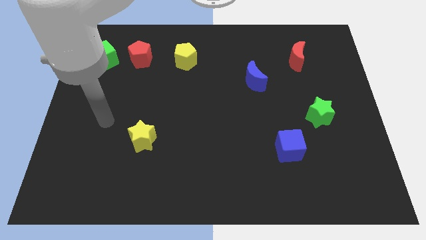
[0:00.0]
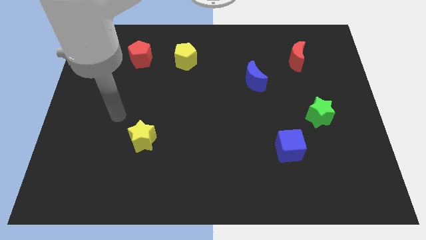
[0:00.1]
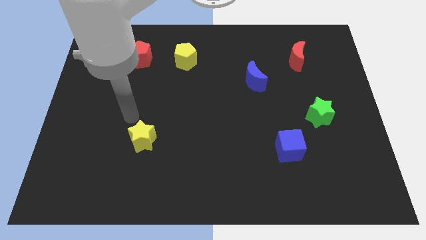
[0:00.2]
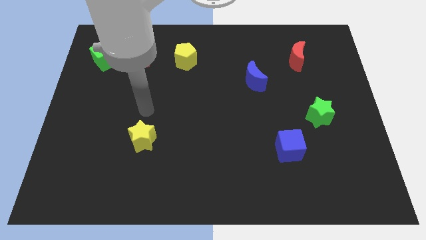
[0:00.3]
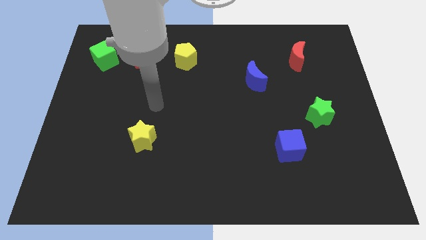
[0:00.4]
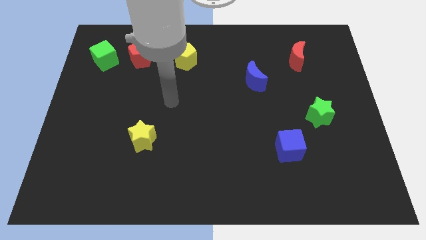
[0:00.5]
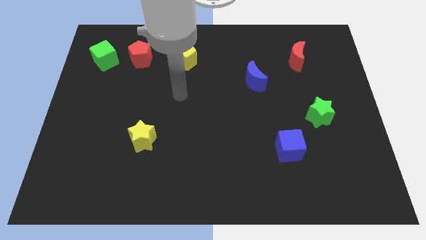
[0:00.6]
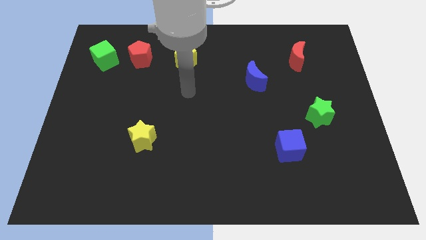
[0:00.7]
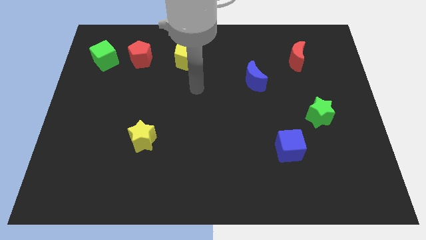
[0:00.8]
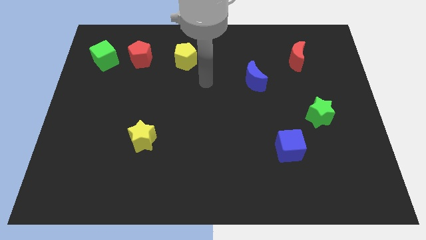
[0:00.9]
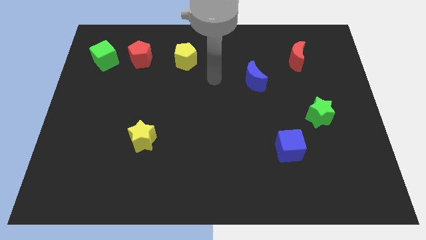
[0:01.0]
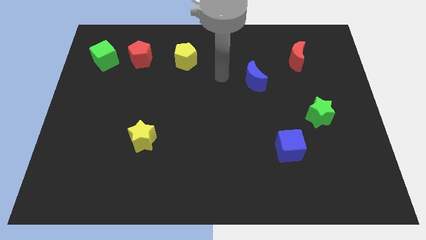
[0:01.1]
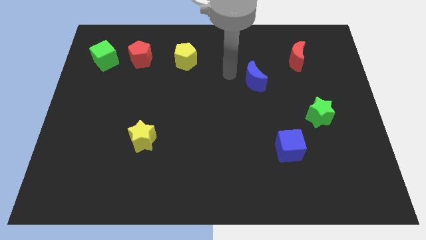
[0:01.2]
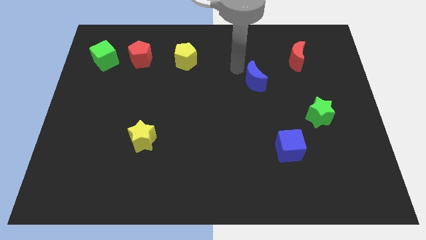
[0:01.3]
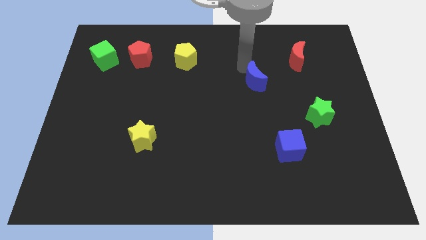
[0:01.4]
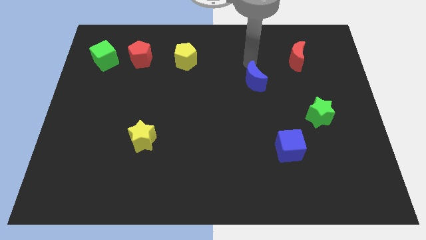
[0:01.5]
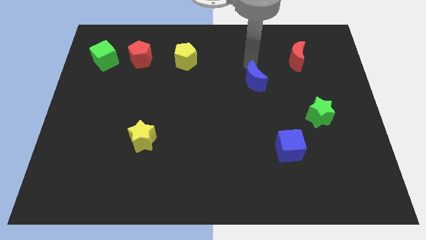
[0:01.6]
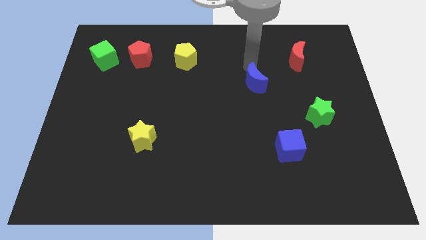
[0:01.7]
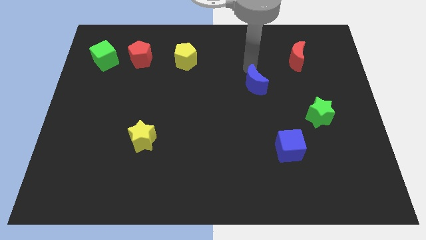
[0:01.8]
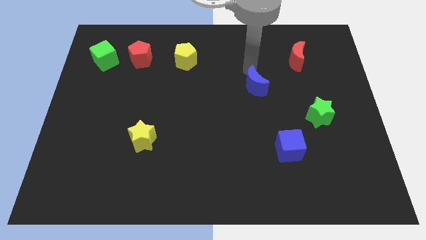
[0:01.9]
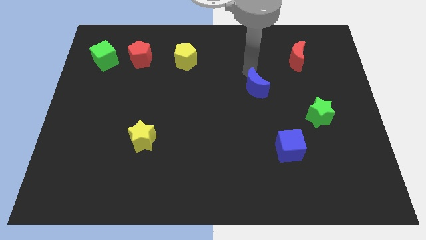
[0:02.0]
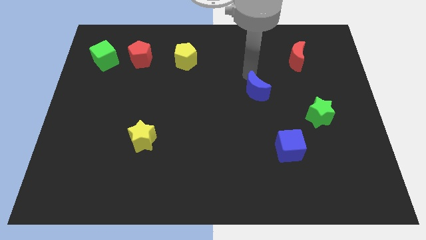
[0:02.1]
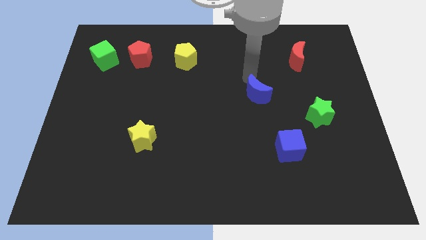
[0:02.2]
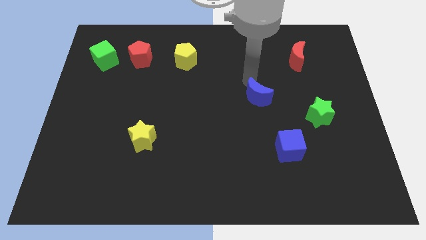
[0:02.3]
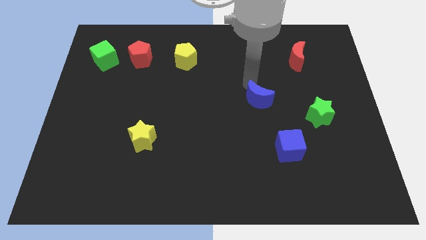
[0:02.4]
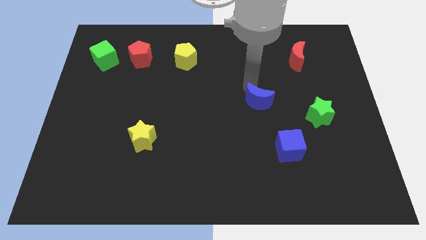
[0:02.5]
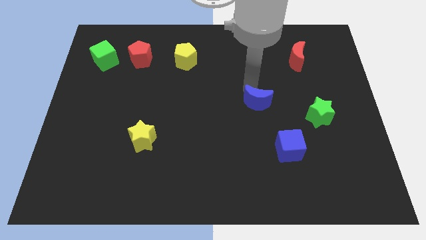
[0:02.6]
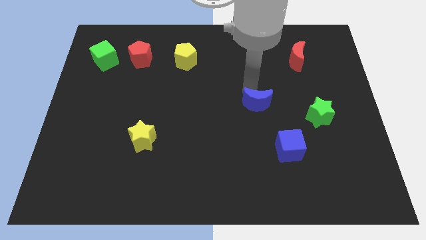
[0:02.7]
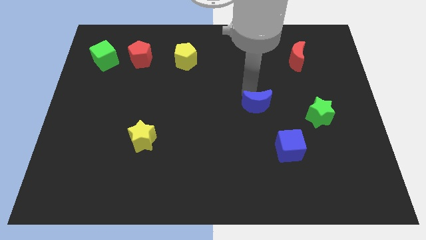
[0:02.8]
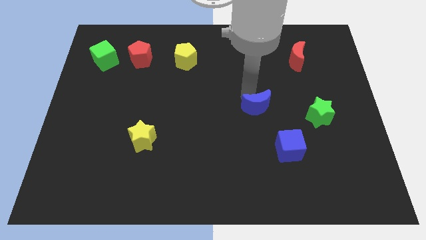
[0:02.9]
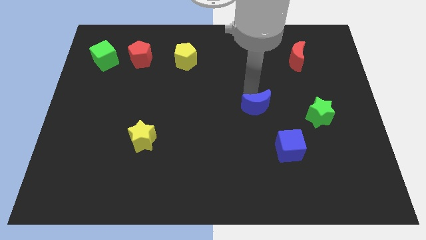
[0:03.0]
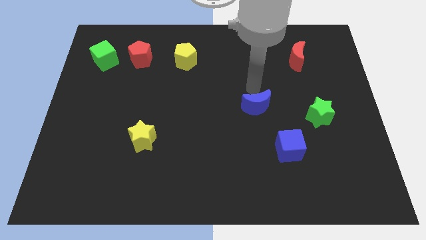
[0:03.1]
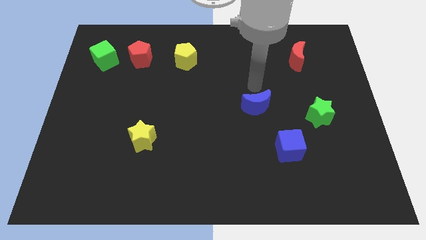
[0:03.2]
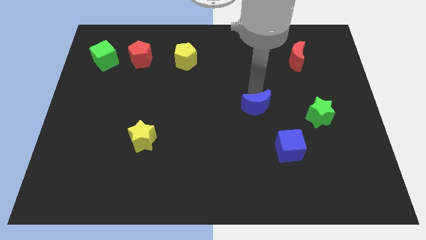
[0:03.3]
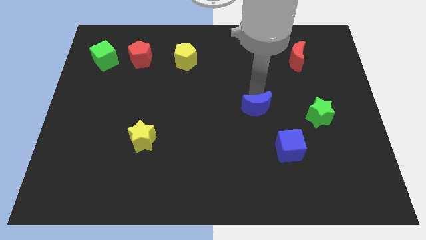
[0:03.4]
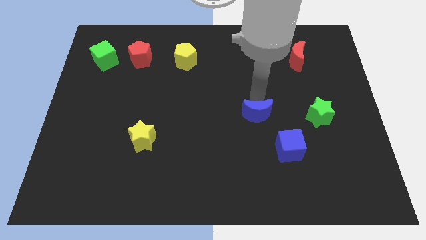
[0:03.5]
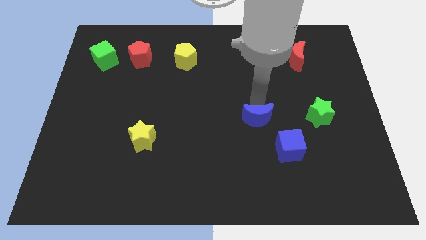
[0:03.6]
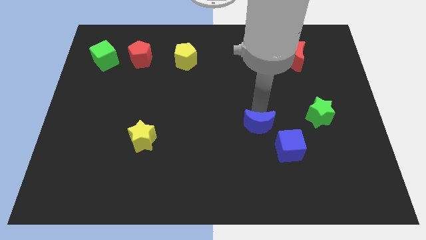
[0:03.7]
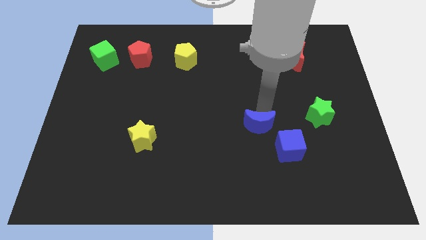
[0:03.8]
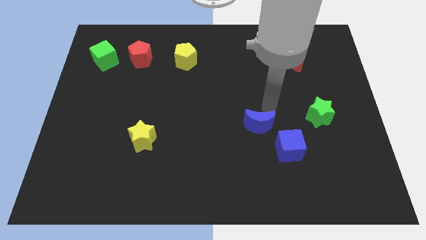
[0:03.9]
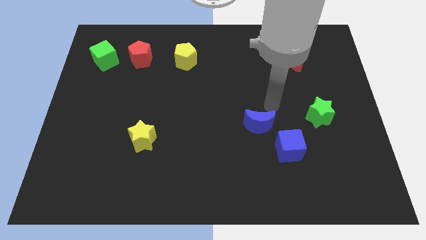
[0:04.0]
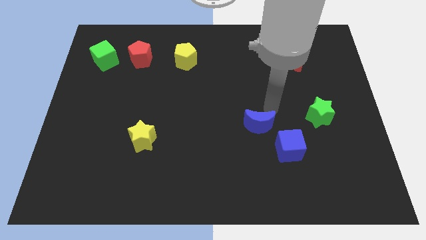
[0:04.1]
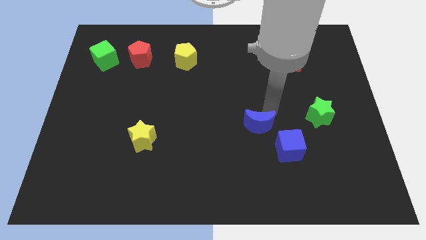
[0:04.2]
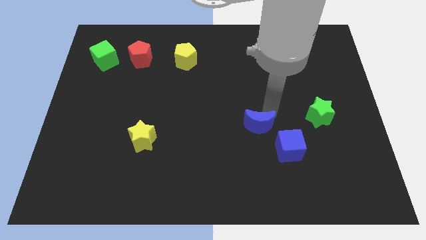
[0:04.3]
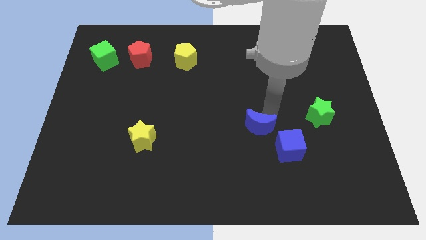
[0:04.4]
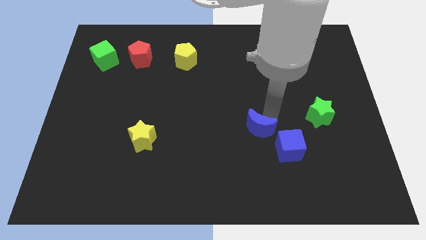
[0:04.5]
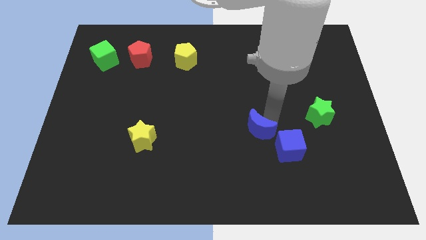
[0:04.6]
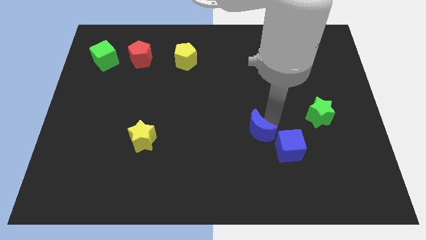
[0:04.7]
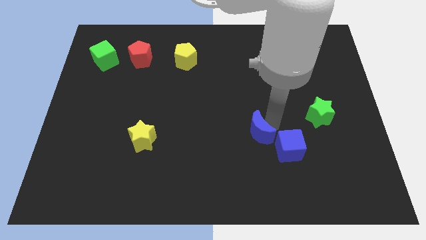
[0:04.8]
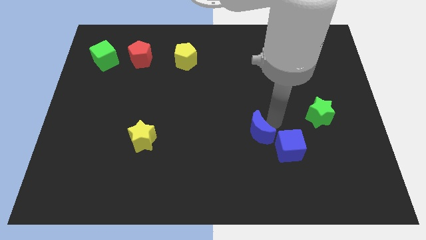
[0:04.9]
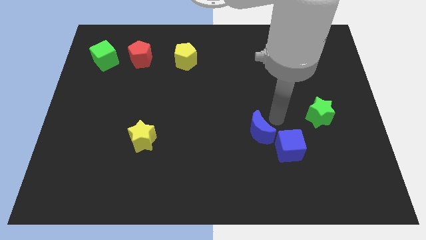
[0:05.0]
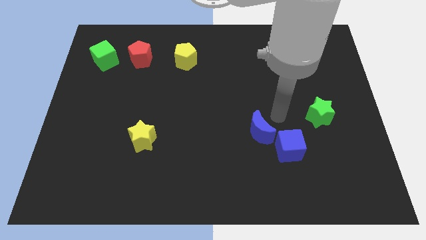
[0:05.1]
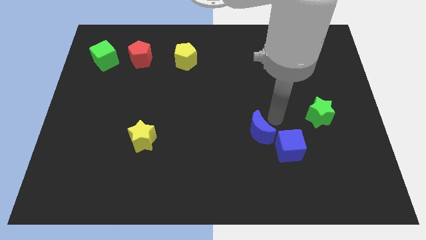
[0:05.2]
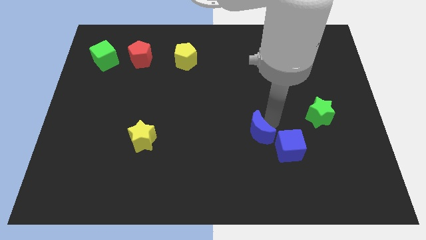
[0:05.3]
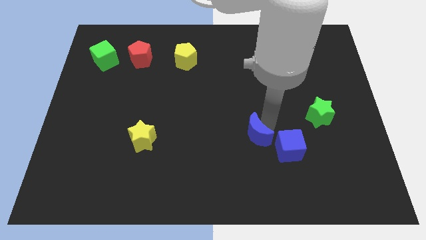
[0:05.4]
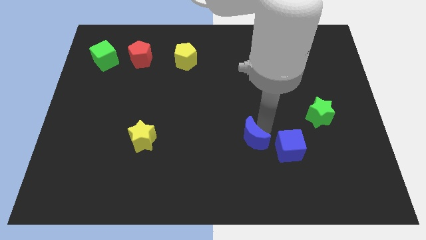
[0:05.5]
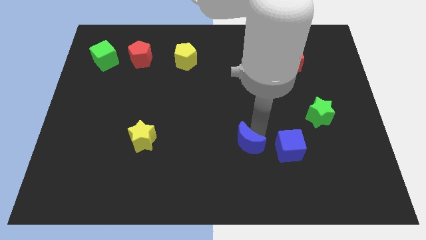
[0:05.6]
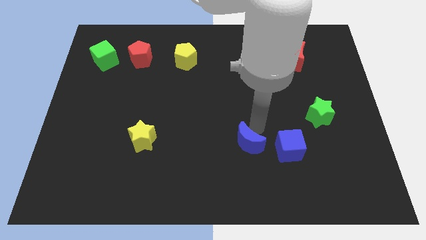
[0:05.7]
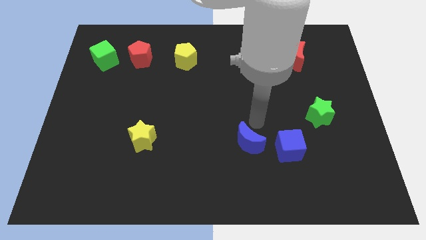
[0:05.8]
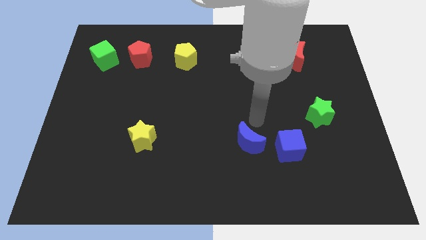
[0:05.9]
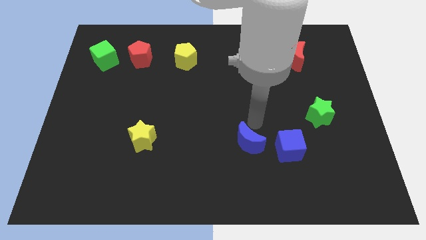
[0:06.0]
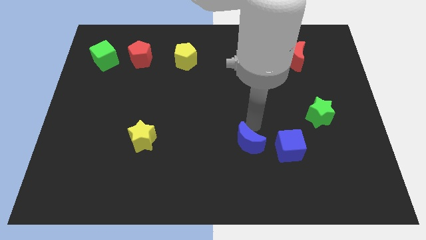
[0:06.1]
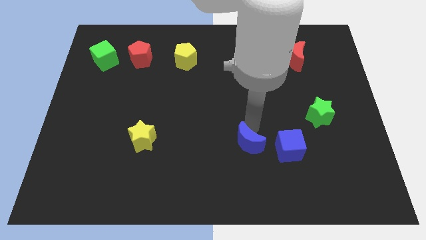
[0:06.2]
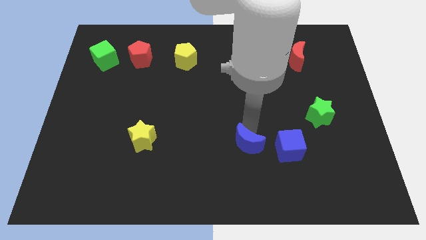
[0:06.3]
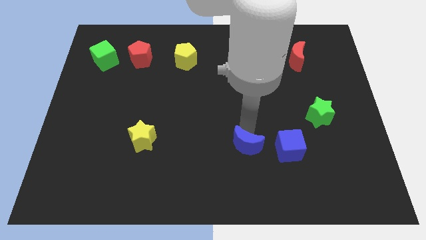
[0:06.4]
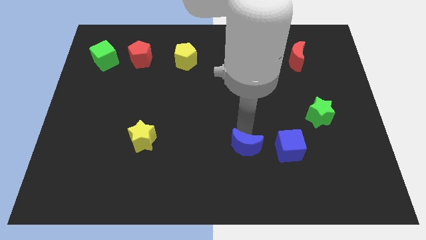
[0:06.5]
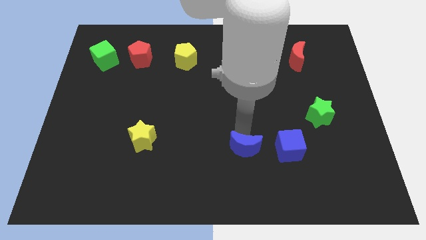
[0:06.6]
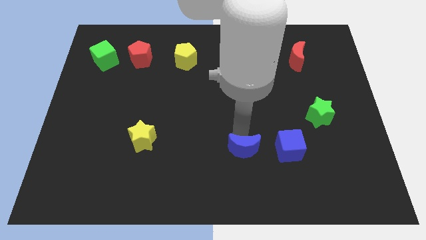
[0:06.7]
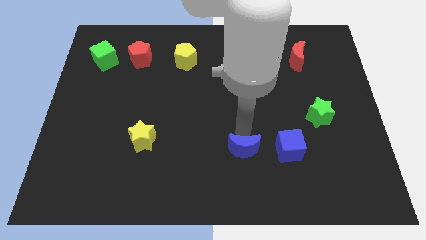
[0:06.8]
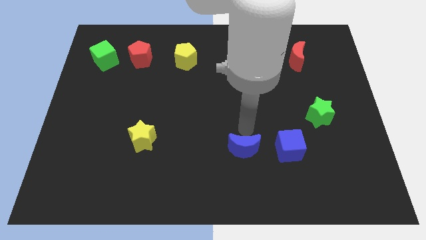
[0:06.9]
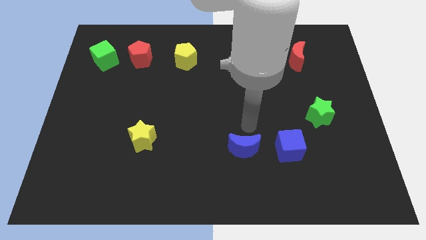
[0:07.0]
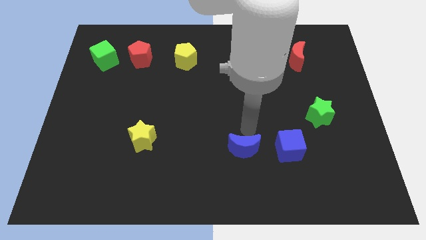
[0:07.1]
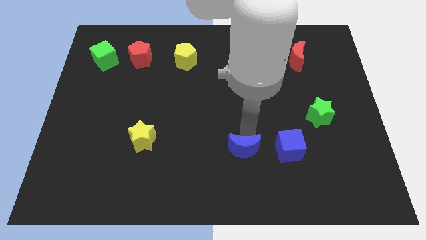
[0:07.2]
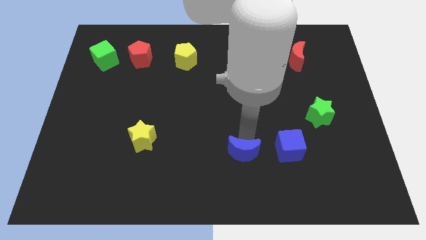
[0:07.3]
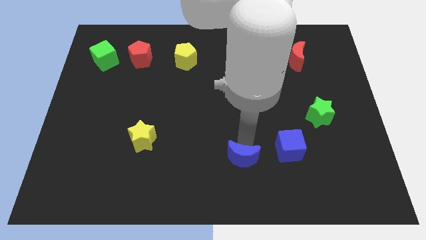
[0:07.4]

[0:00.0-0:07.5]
slide the blue moon to the bottom side
